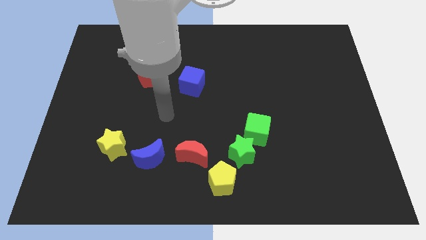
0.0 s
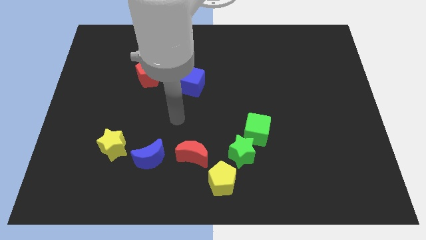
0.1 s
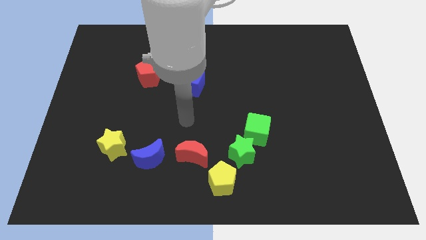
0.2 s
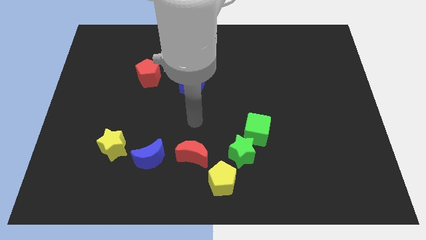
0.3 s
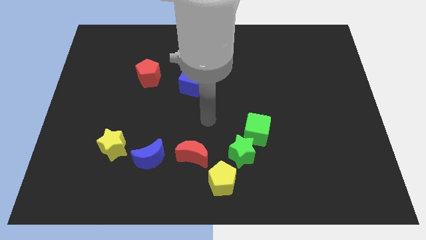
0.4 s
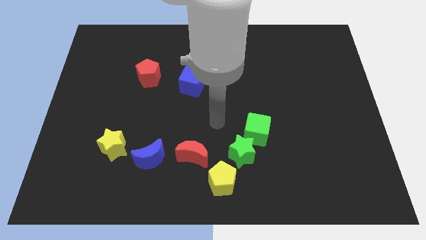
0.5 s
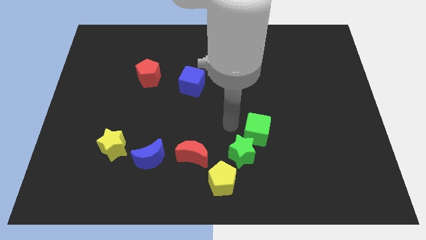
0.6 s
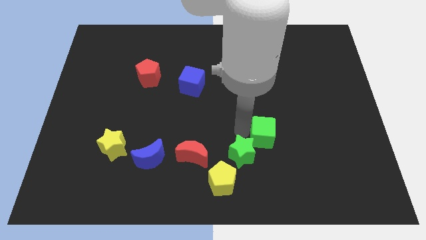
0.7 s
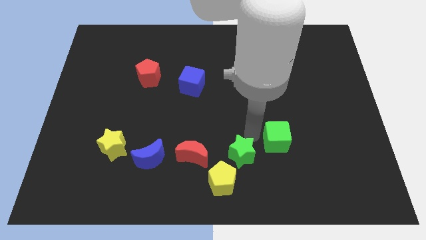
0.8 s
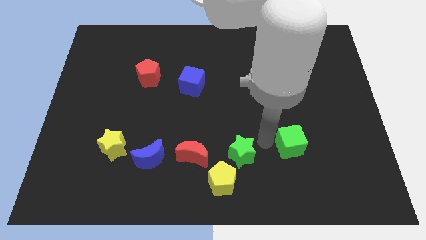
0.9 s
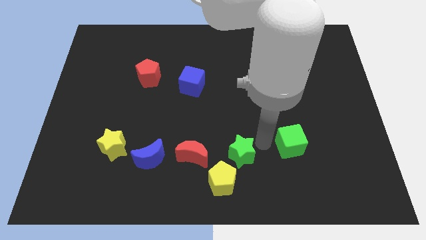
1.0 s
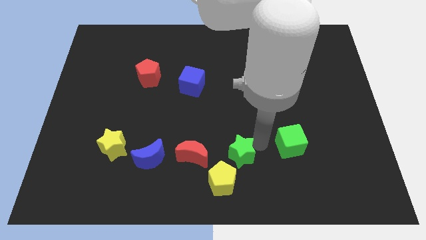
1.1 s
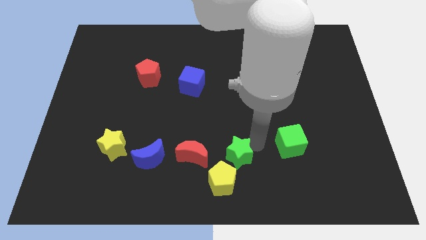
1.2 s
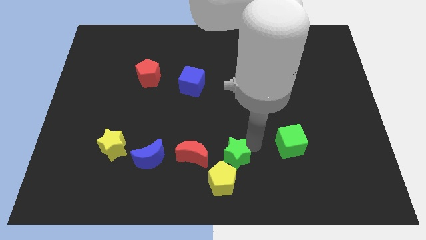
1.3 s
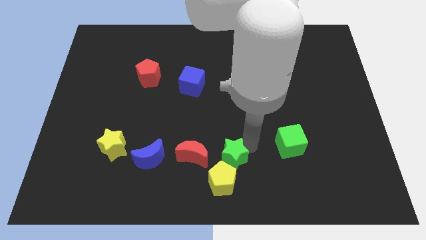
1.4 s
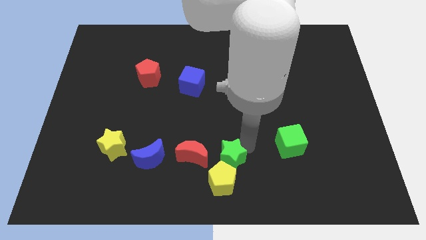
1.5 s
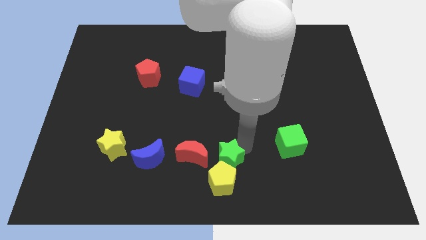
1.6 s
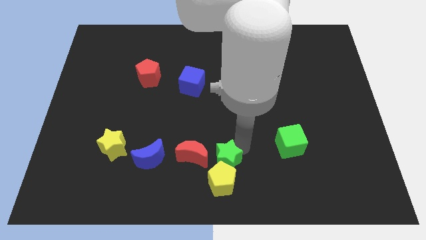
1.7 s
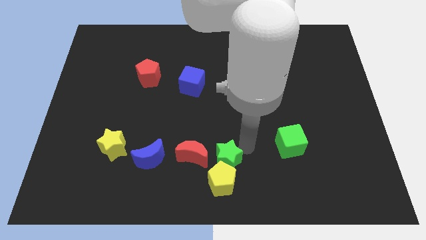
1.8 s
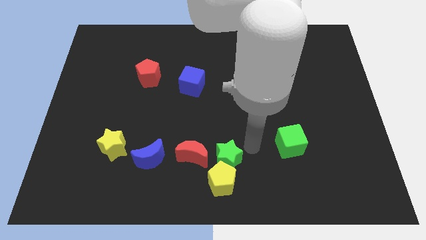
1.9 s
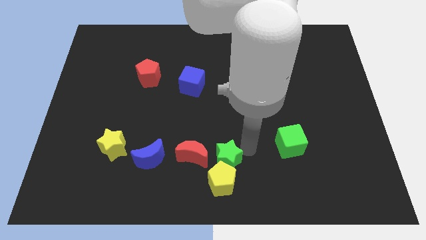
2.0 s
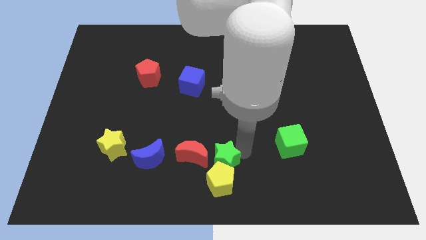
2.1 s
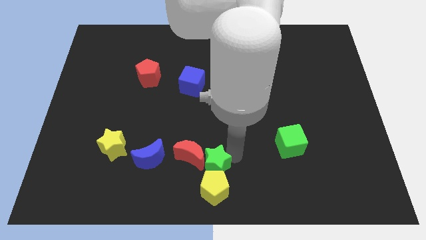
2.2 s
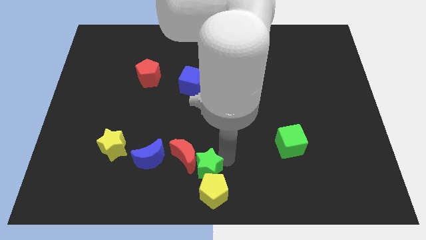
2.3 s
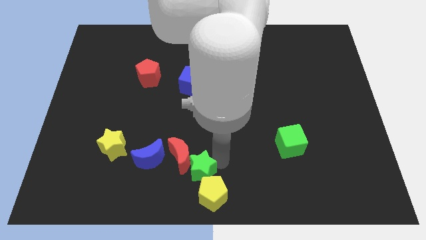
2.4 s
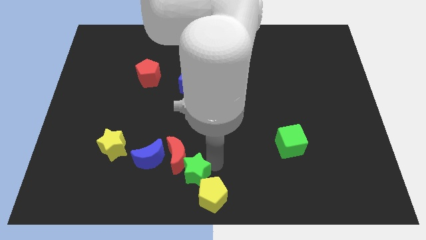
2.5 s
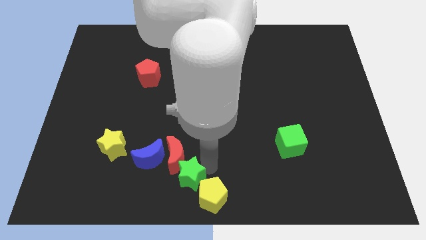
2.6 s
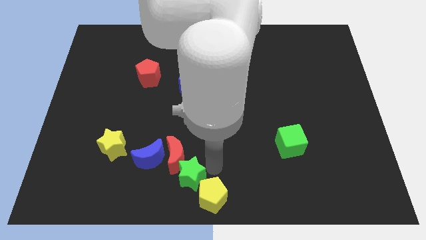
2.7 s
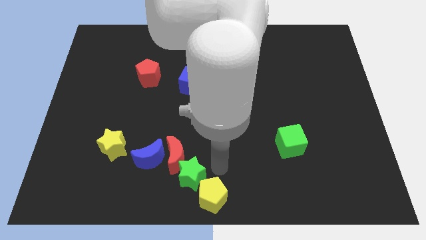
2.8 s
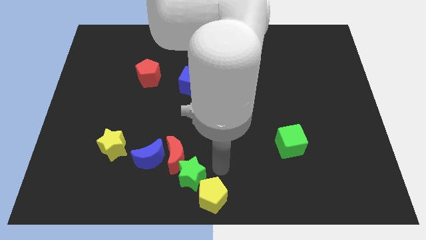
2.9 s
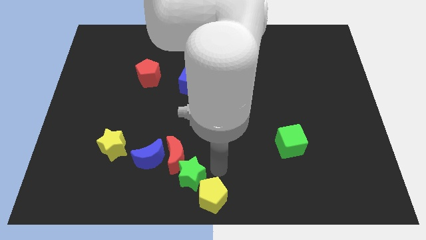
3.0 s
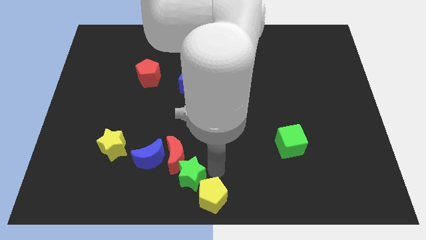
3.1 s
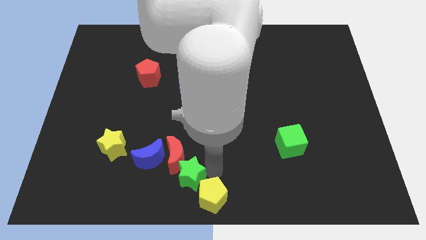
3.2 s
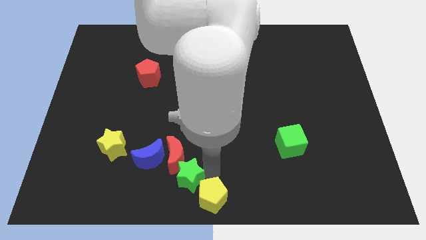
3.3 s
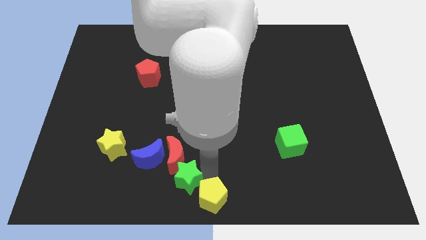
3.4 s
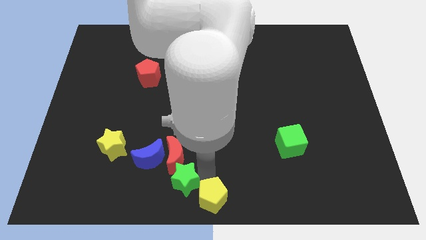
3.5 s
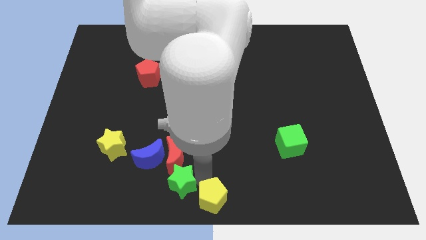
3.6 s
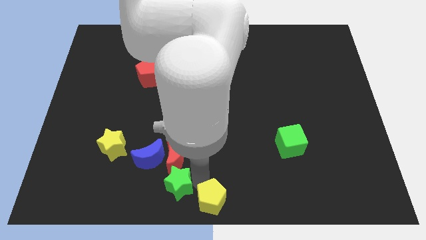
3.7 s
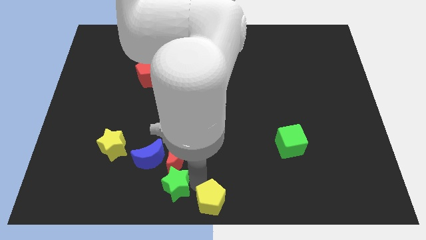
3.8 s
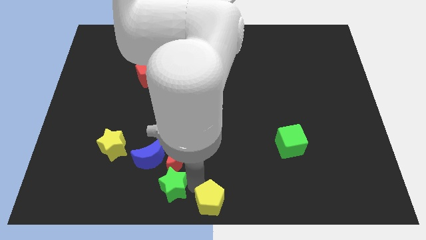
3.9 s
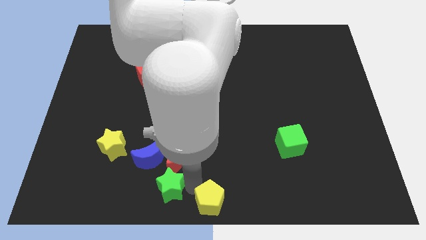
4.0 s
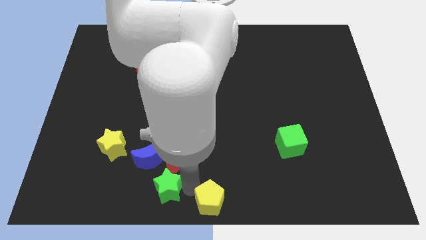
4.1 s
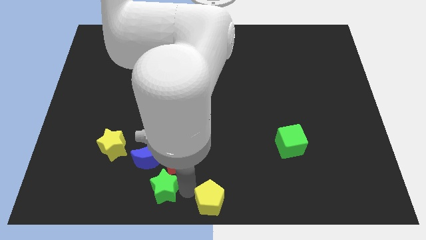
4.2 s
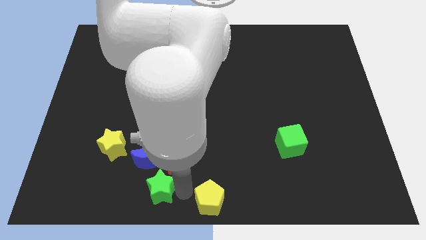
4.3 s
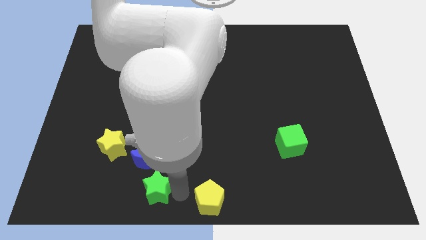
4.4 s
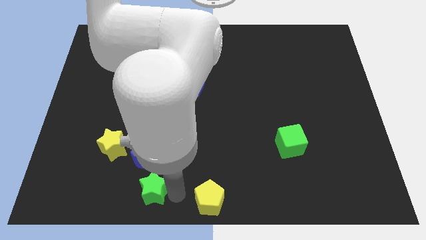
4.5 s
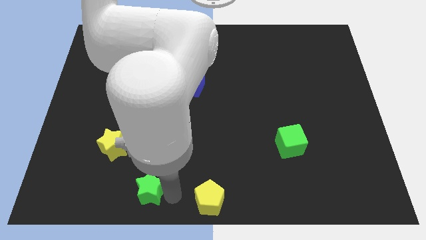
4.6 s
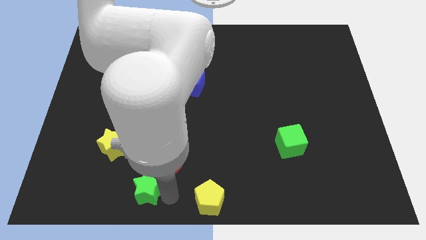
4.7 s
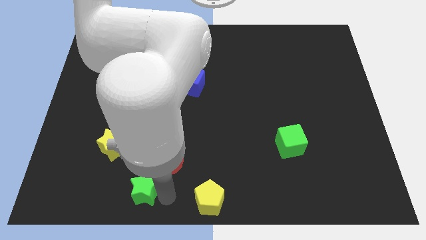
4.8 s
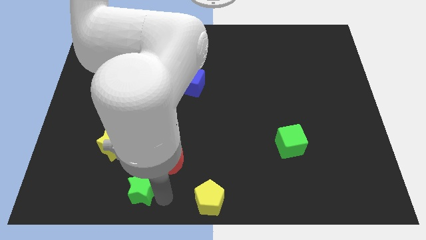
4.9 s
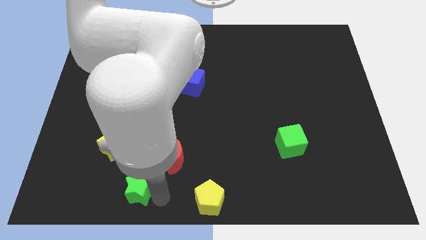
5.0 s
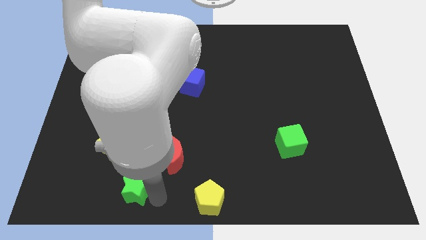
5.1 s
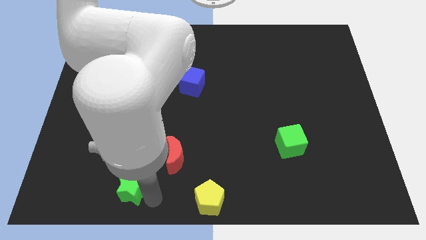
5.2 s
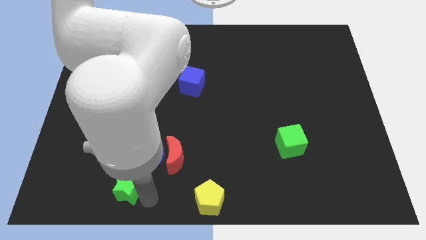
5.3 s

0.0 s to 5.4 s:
slide the green star left

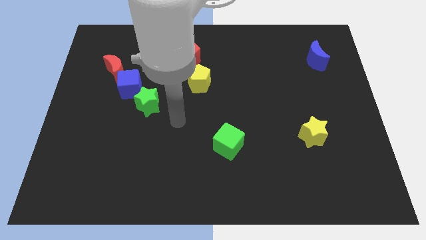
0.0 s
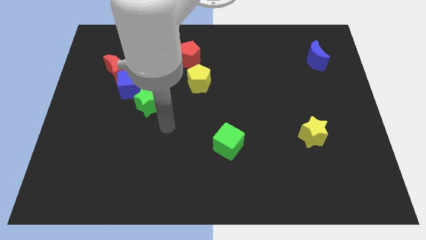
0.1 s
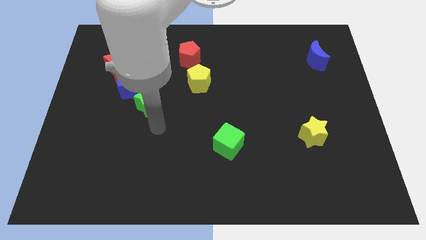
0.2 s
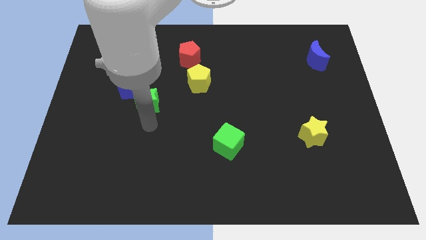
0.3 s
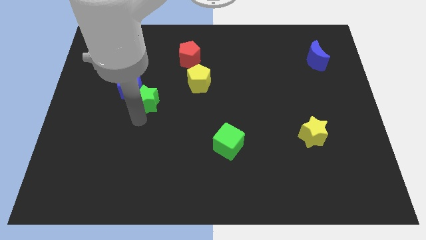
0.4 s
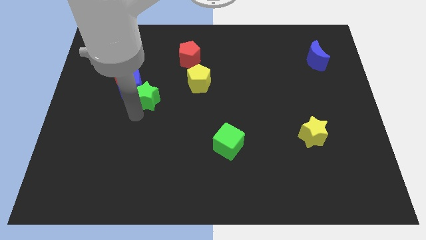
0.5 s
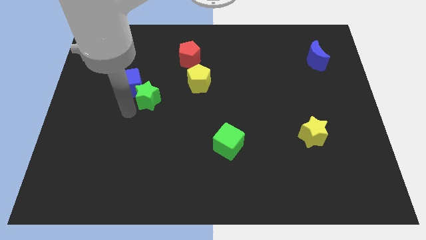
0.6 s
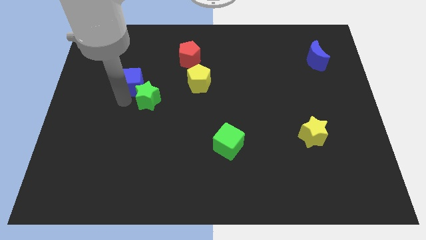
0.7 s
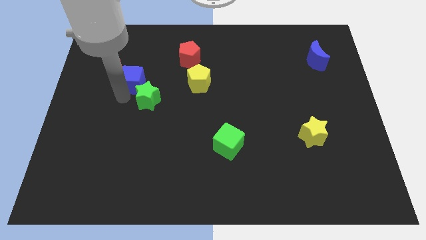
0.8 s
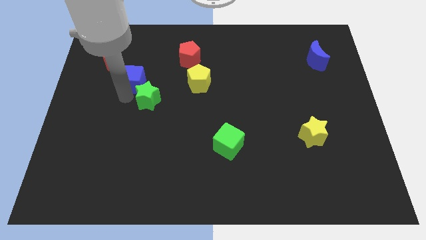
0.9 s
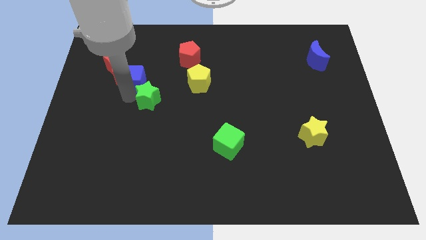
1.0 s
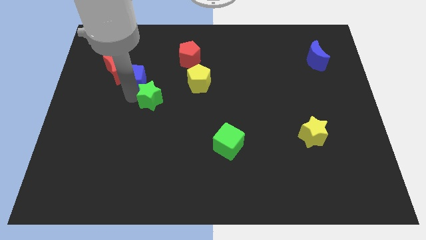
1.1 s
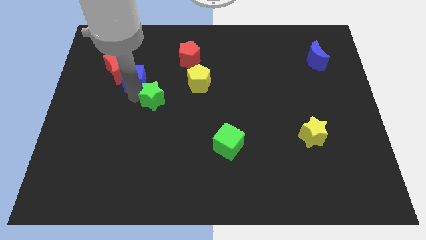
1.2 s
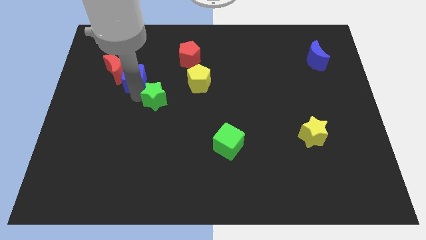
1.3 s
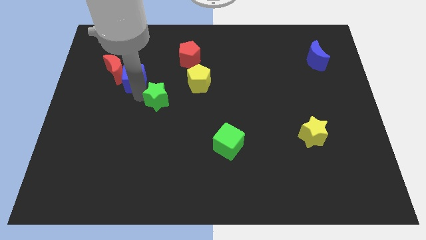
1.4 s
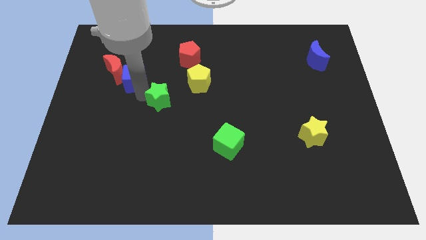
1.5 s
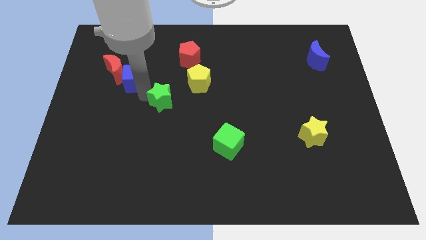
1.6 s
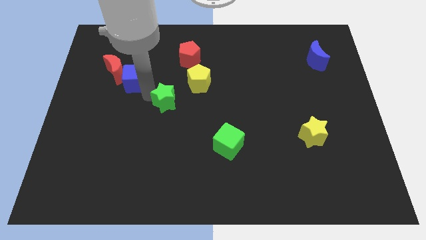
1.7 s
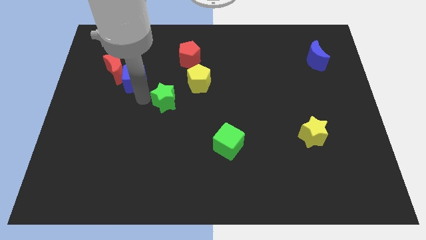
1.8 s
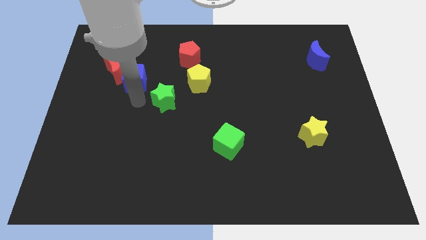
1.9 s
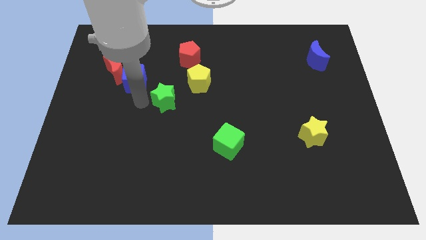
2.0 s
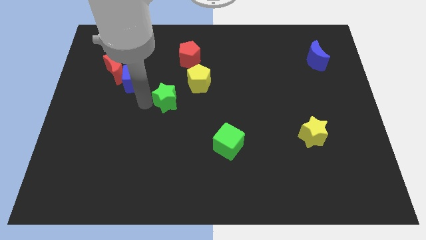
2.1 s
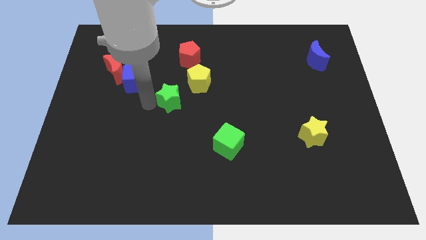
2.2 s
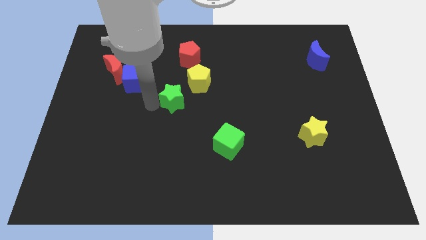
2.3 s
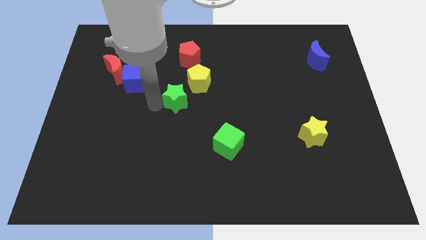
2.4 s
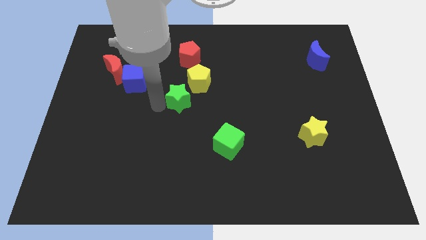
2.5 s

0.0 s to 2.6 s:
slightly push the green star right

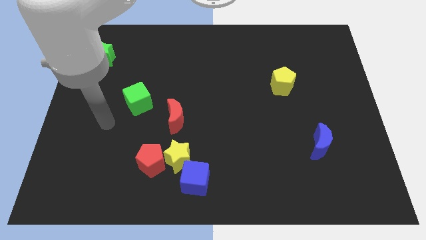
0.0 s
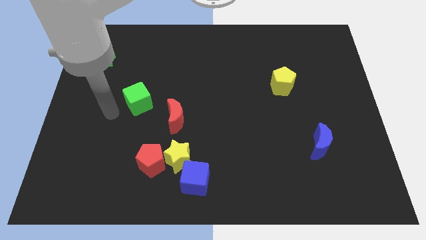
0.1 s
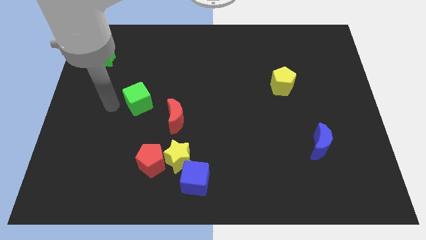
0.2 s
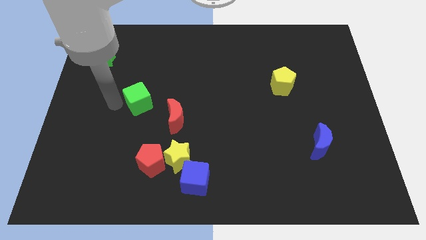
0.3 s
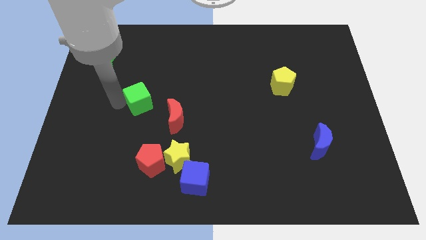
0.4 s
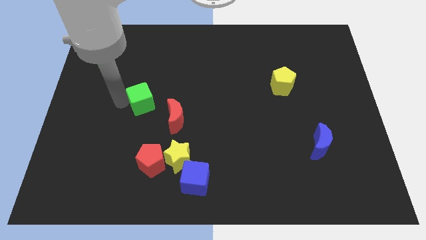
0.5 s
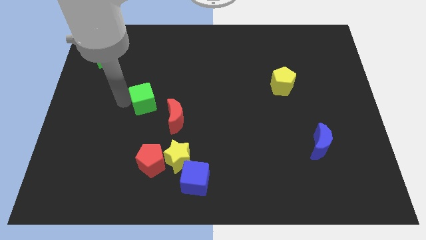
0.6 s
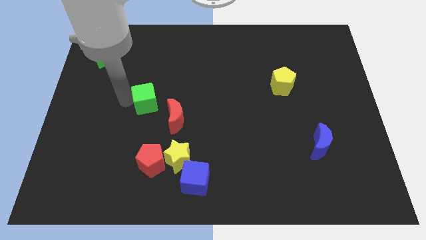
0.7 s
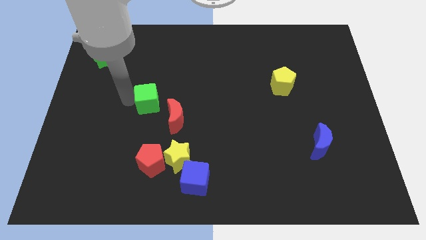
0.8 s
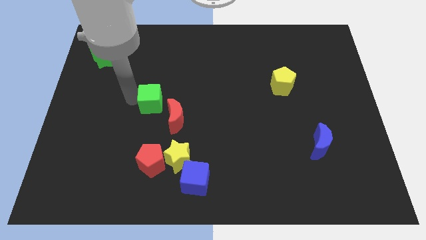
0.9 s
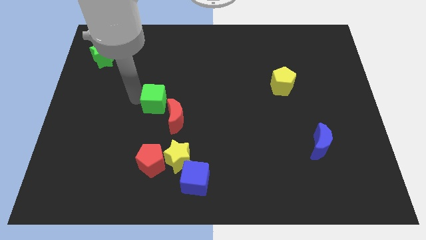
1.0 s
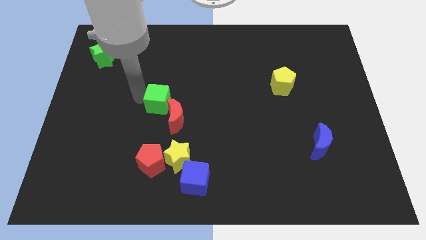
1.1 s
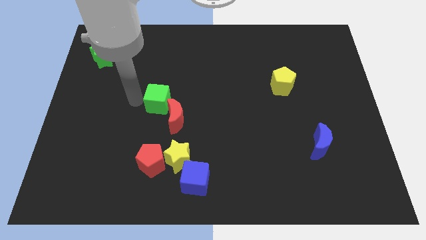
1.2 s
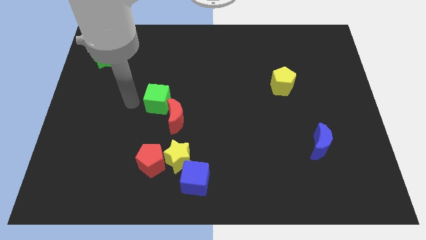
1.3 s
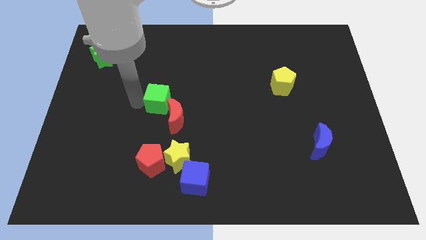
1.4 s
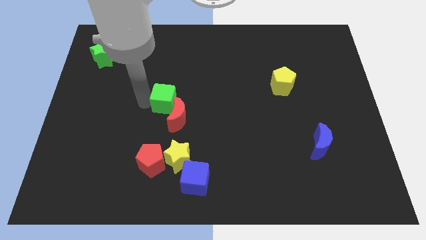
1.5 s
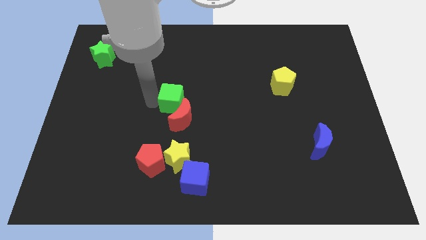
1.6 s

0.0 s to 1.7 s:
slide the green cube right a little bit
